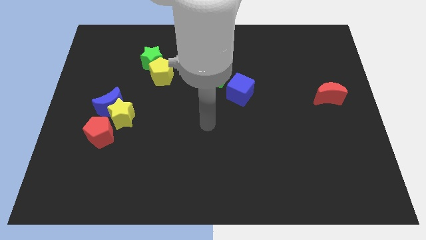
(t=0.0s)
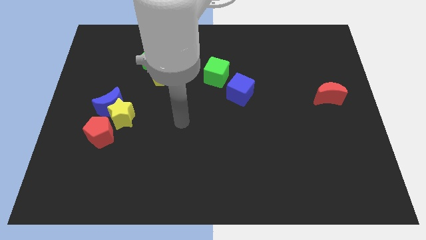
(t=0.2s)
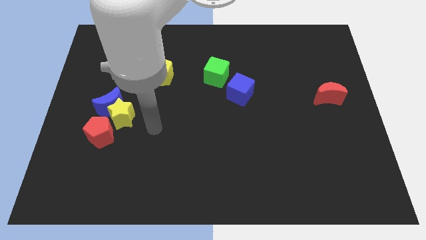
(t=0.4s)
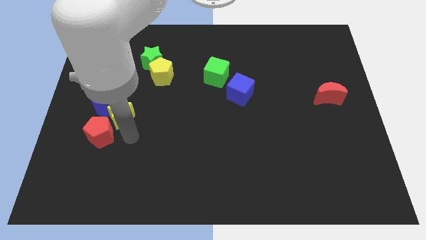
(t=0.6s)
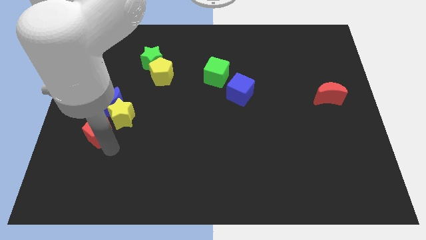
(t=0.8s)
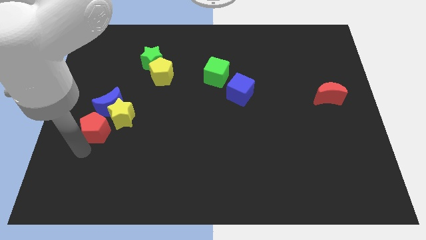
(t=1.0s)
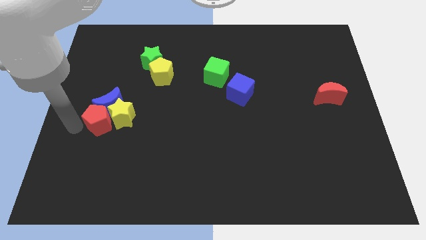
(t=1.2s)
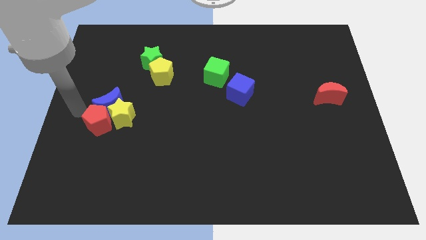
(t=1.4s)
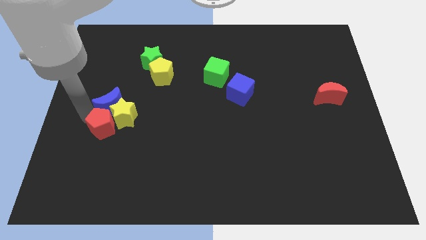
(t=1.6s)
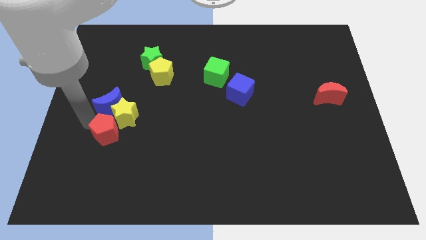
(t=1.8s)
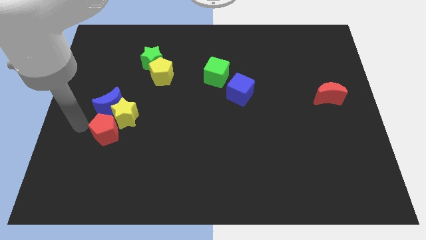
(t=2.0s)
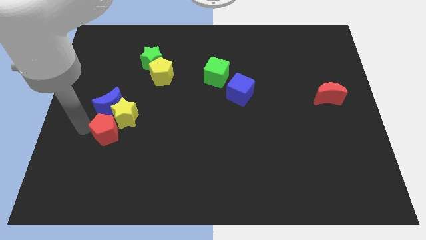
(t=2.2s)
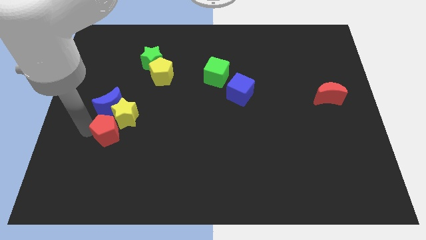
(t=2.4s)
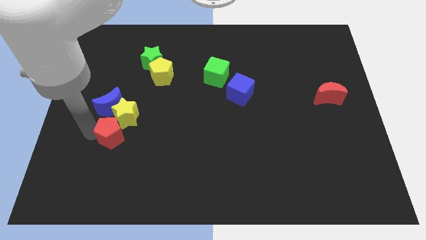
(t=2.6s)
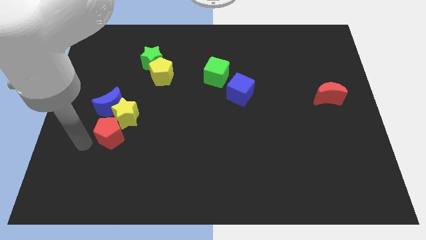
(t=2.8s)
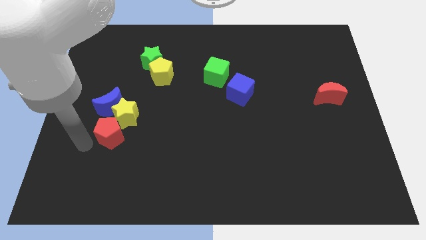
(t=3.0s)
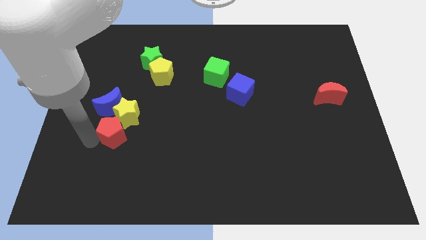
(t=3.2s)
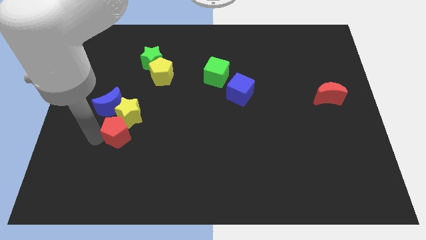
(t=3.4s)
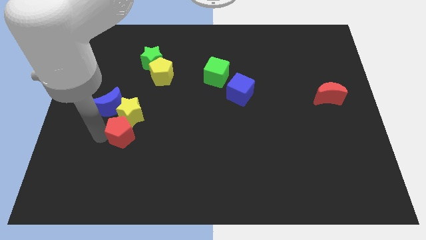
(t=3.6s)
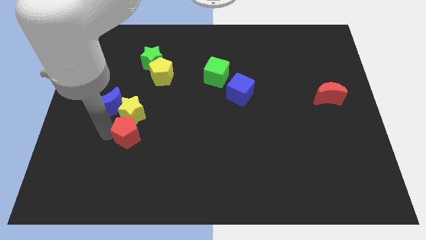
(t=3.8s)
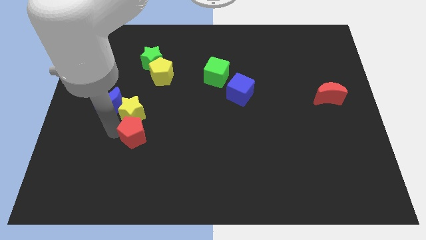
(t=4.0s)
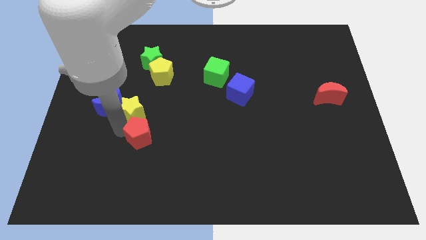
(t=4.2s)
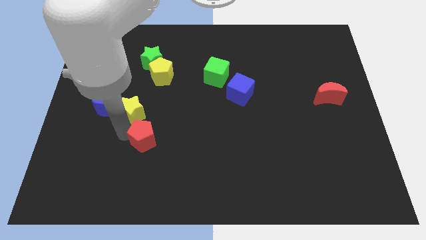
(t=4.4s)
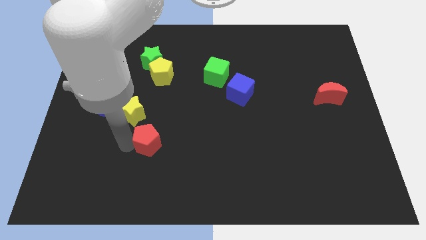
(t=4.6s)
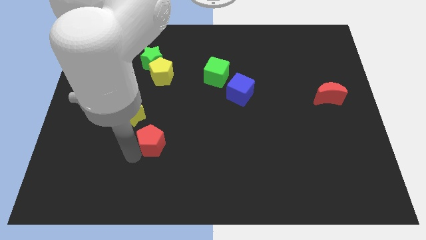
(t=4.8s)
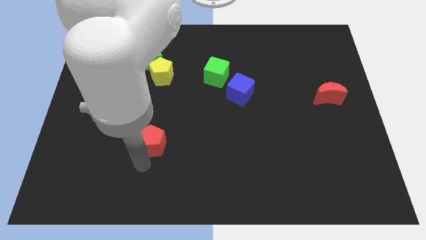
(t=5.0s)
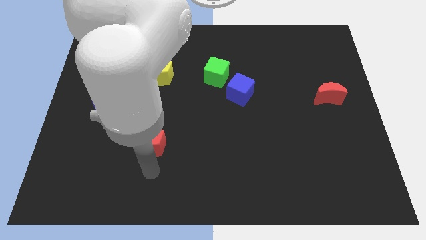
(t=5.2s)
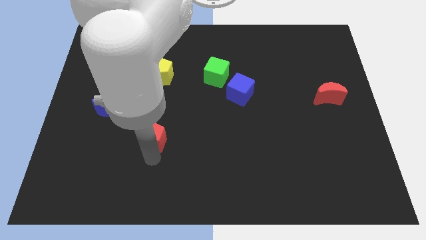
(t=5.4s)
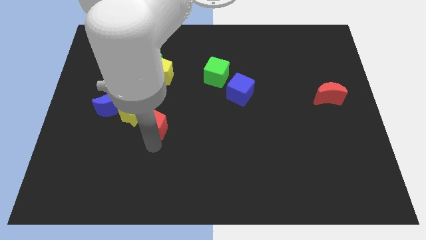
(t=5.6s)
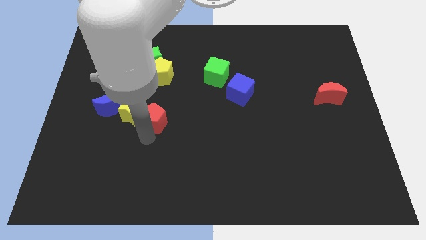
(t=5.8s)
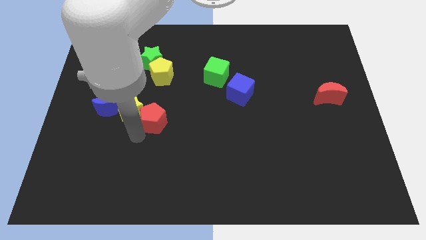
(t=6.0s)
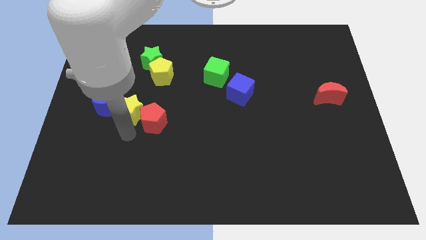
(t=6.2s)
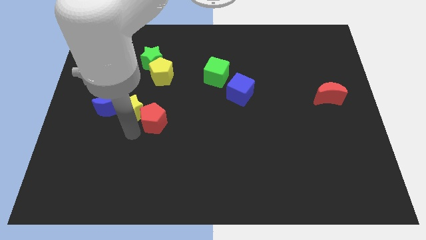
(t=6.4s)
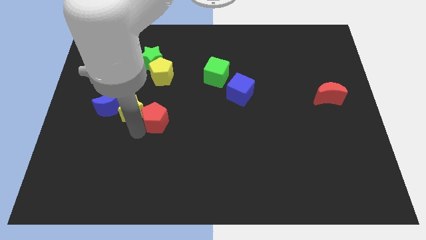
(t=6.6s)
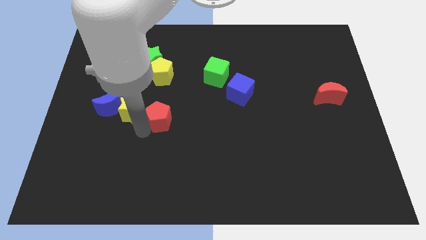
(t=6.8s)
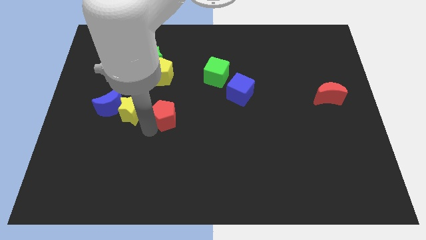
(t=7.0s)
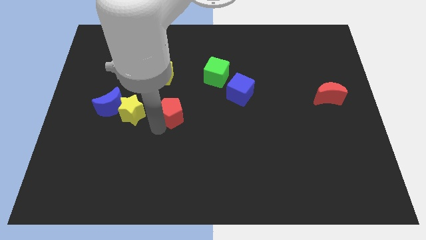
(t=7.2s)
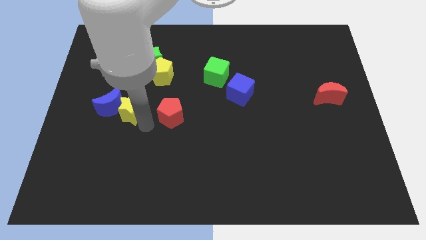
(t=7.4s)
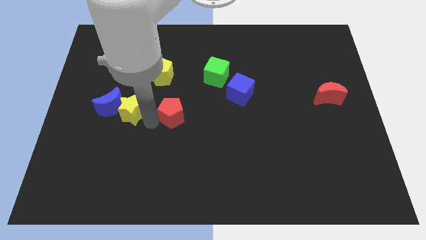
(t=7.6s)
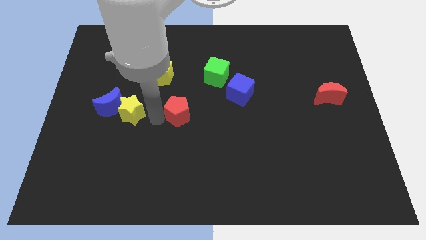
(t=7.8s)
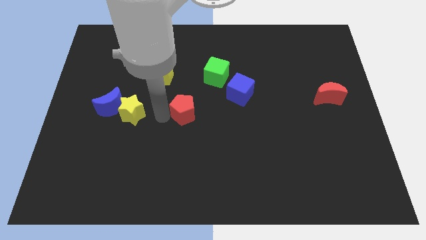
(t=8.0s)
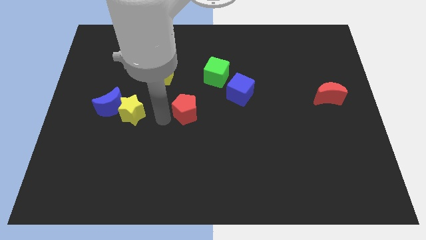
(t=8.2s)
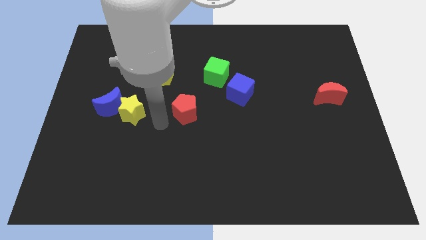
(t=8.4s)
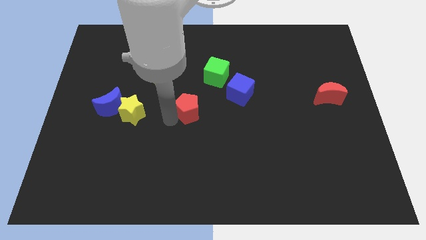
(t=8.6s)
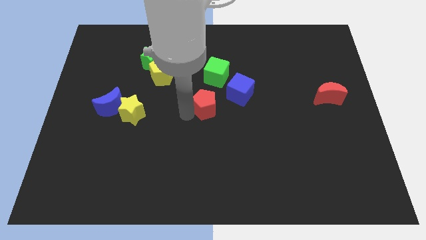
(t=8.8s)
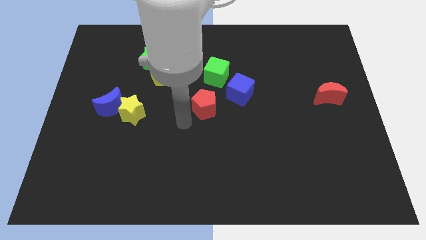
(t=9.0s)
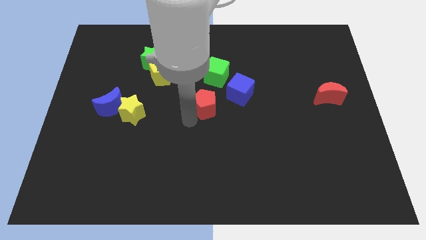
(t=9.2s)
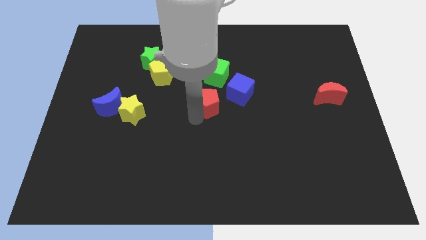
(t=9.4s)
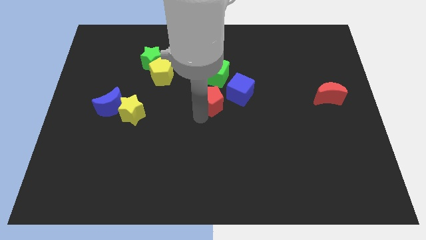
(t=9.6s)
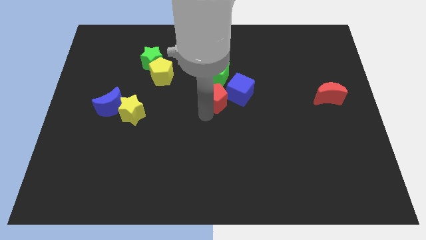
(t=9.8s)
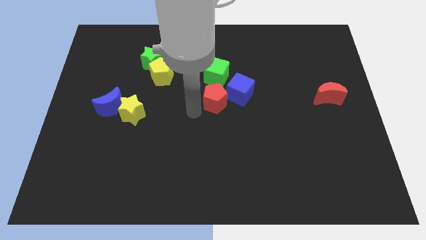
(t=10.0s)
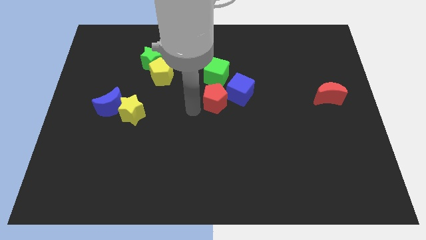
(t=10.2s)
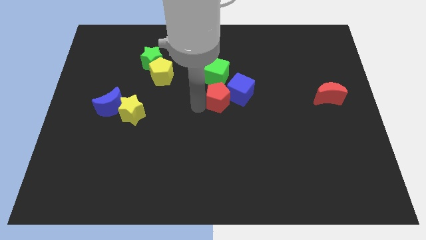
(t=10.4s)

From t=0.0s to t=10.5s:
put the red pentagon close to the blue cube

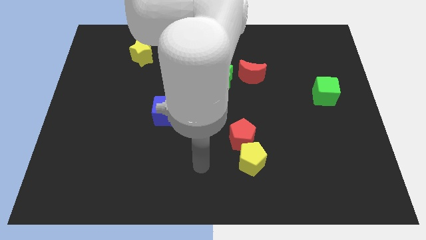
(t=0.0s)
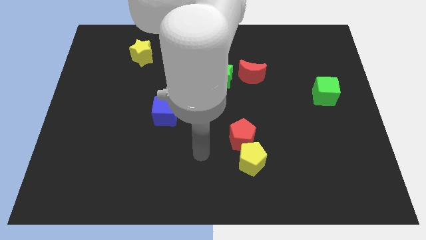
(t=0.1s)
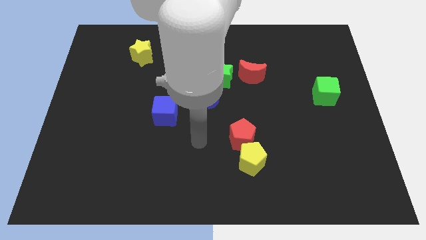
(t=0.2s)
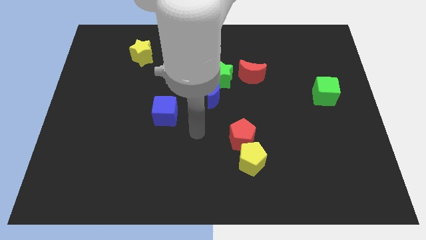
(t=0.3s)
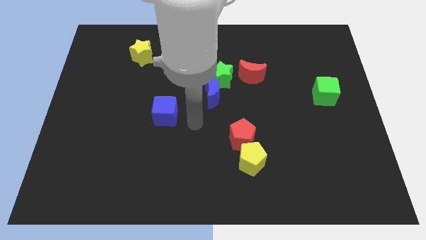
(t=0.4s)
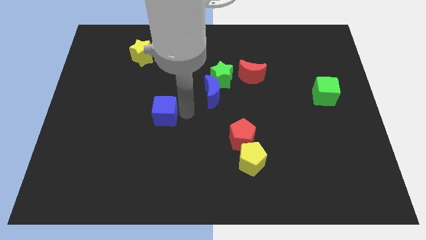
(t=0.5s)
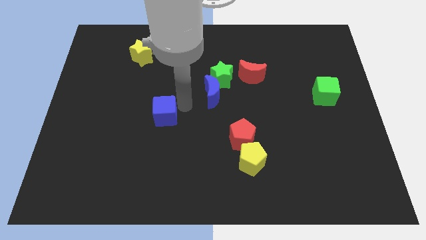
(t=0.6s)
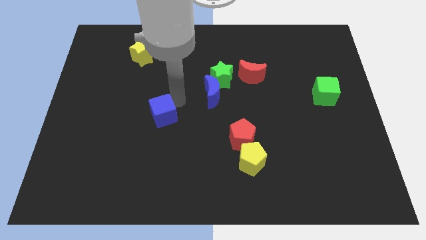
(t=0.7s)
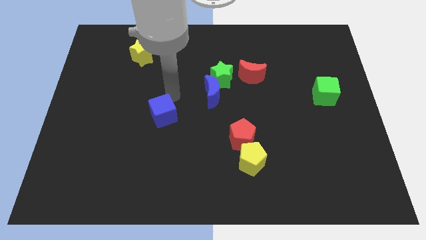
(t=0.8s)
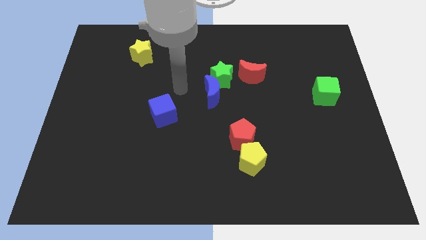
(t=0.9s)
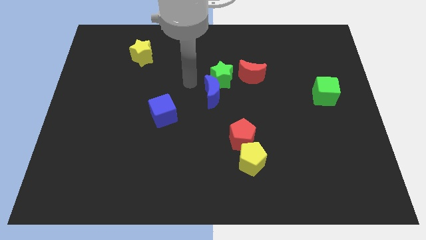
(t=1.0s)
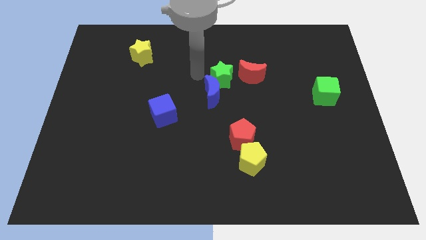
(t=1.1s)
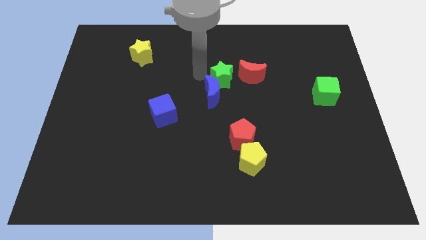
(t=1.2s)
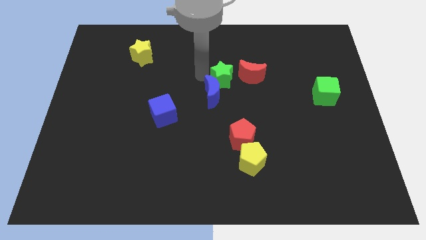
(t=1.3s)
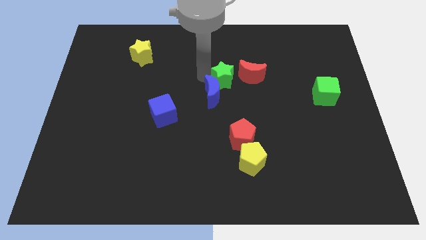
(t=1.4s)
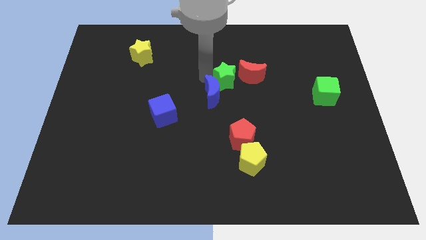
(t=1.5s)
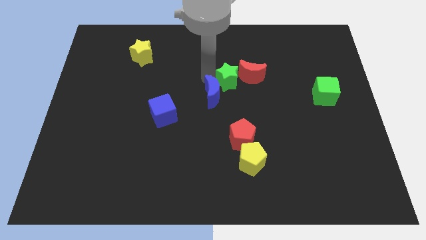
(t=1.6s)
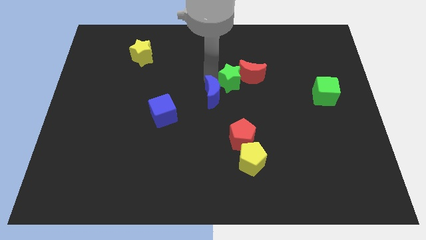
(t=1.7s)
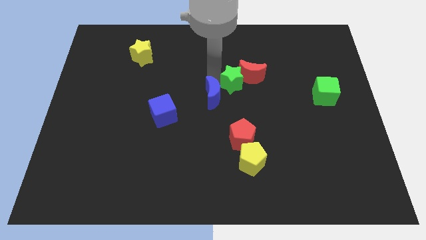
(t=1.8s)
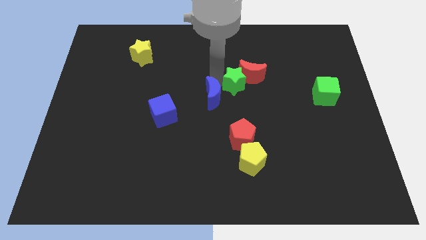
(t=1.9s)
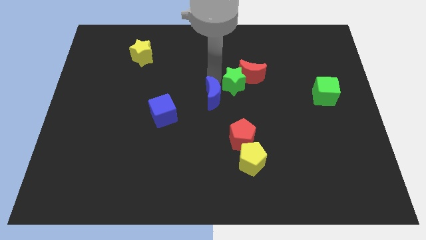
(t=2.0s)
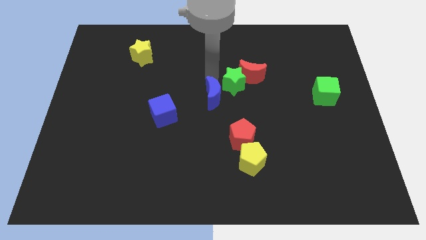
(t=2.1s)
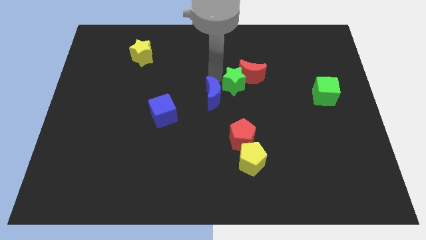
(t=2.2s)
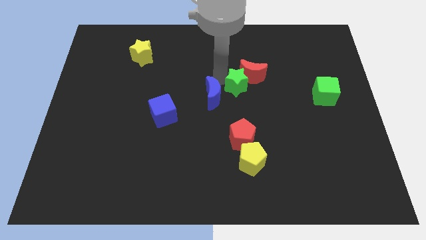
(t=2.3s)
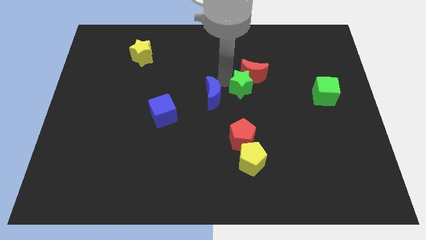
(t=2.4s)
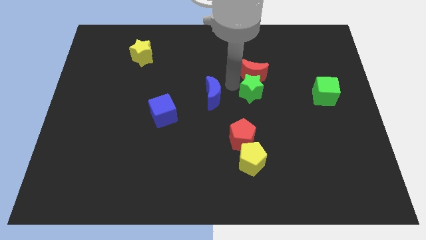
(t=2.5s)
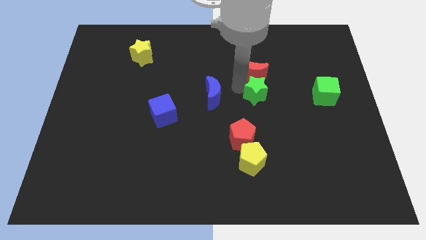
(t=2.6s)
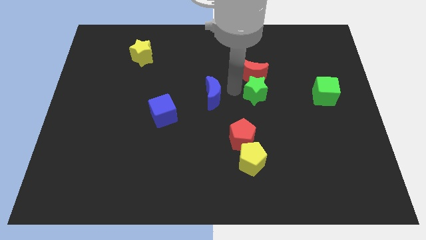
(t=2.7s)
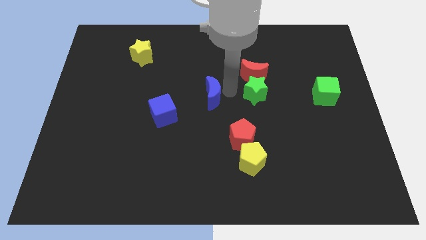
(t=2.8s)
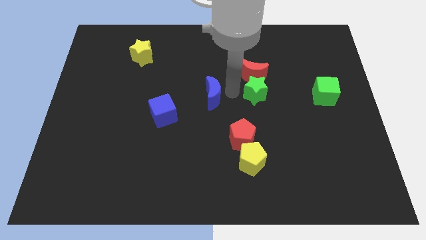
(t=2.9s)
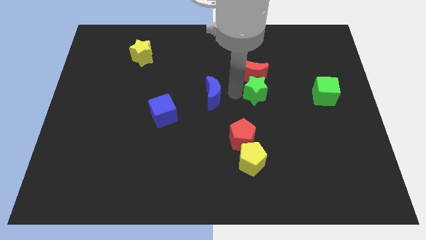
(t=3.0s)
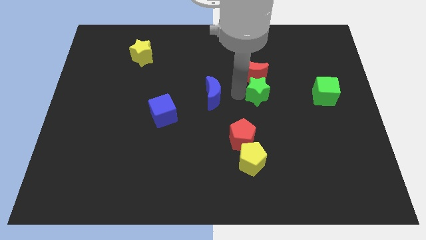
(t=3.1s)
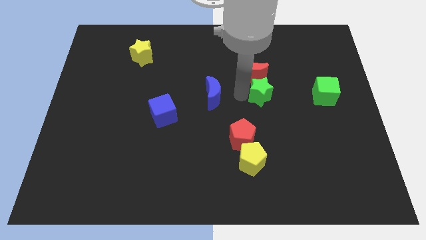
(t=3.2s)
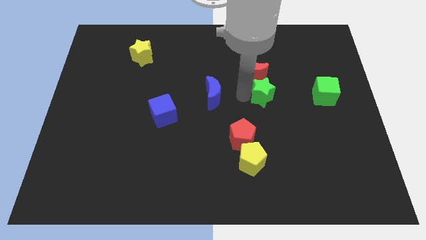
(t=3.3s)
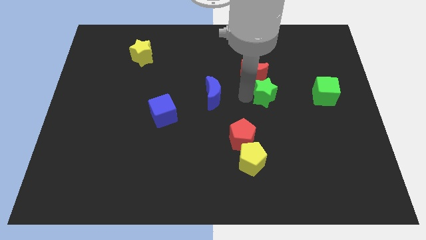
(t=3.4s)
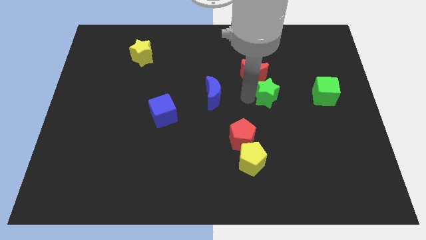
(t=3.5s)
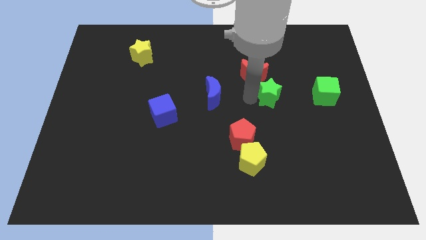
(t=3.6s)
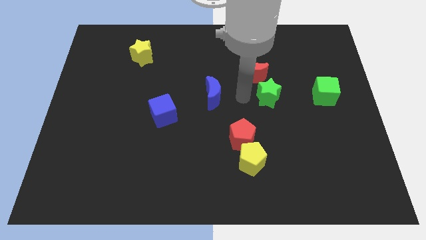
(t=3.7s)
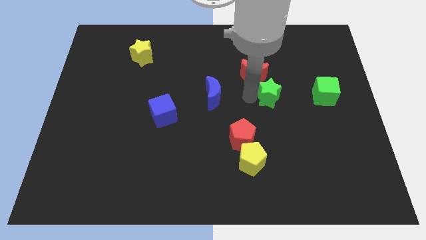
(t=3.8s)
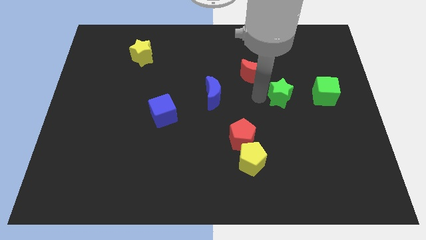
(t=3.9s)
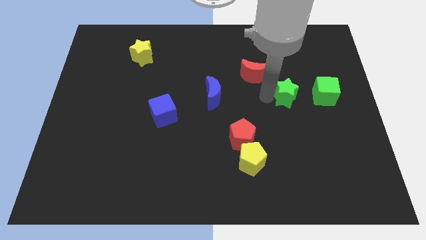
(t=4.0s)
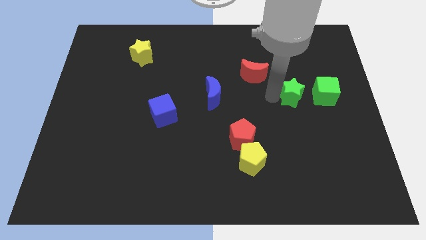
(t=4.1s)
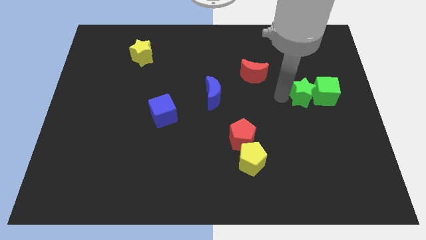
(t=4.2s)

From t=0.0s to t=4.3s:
slide the green star towards the green cube
